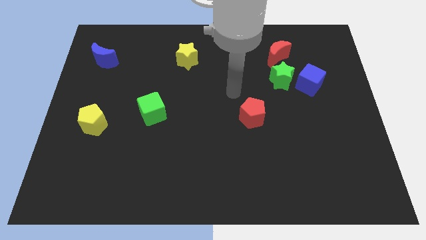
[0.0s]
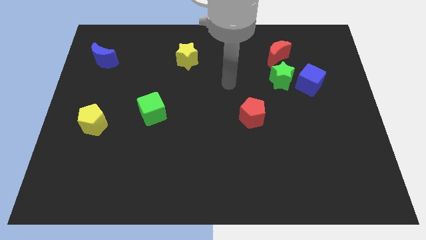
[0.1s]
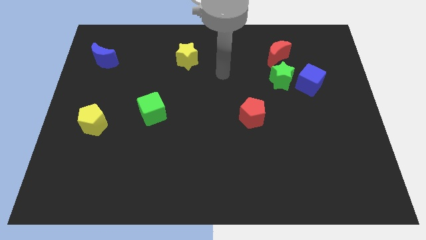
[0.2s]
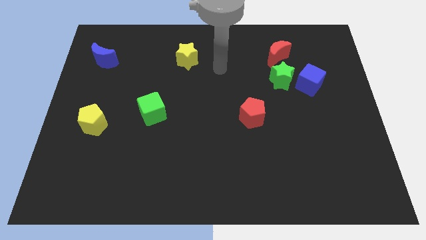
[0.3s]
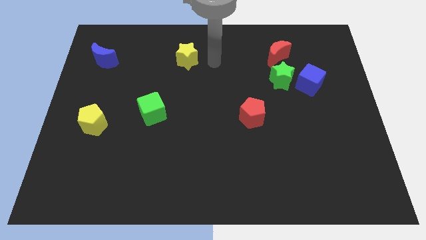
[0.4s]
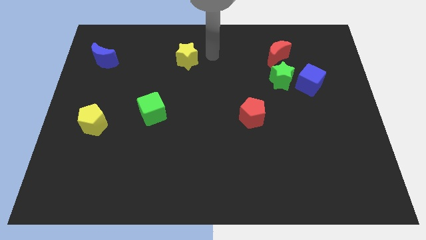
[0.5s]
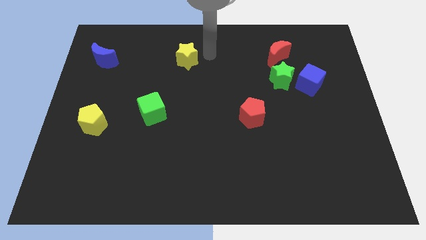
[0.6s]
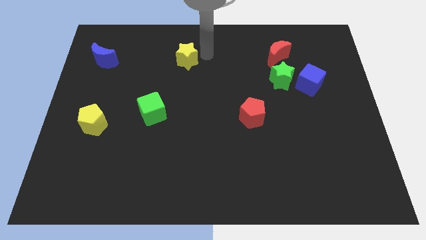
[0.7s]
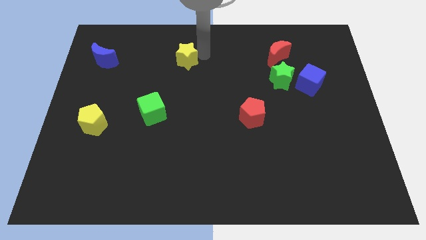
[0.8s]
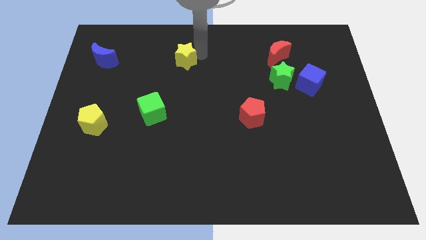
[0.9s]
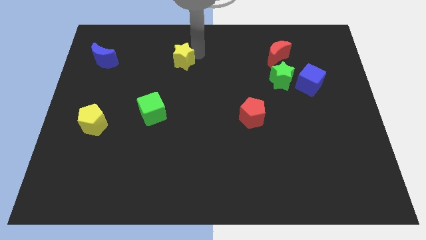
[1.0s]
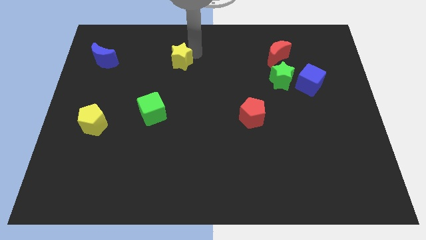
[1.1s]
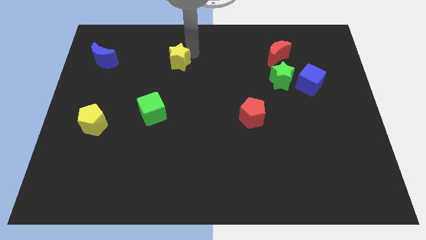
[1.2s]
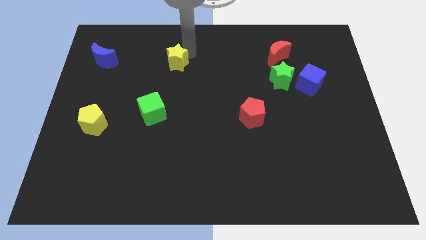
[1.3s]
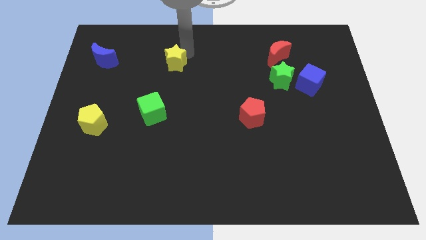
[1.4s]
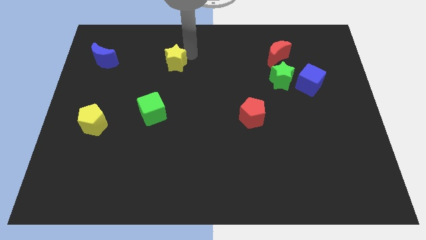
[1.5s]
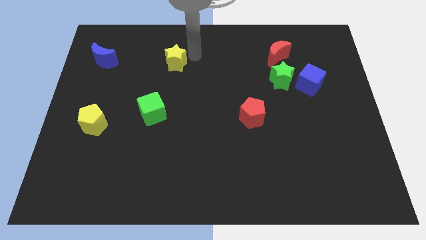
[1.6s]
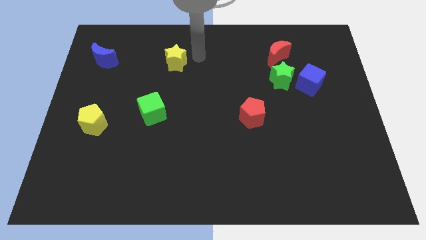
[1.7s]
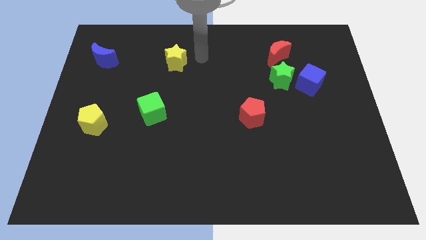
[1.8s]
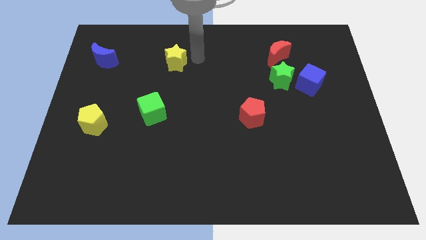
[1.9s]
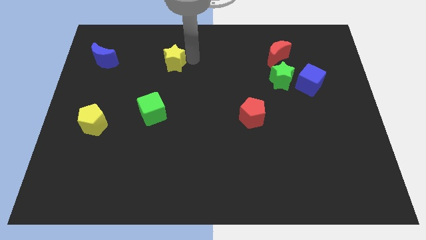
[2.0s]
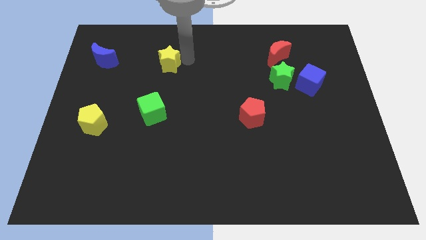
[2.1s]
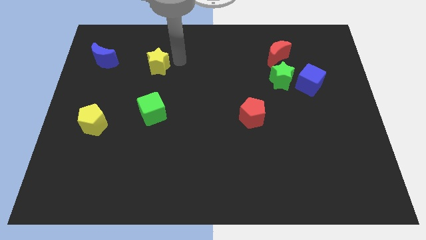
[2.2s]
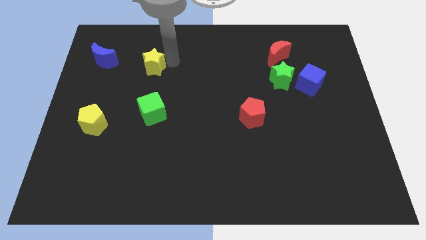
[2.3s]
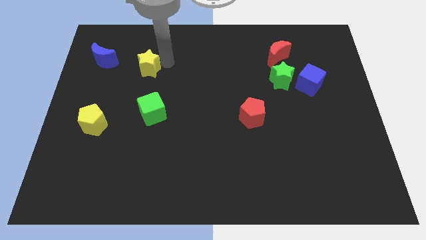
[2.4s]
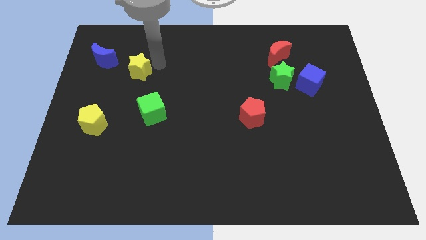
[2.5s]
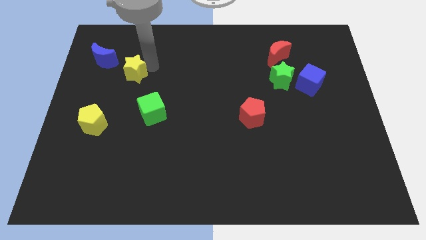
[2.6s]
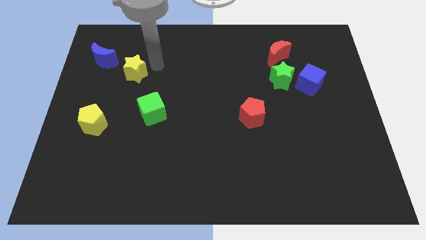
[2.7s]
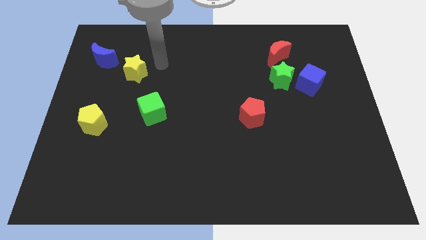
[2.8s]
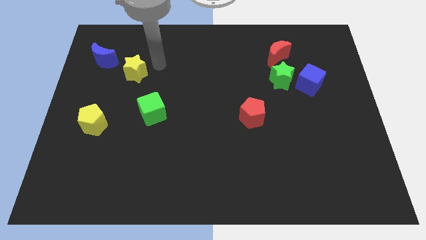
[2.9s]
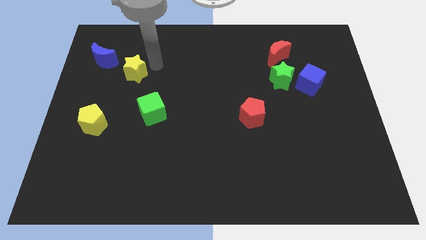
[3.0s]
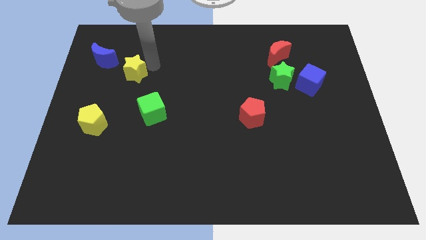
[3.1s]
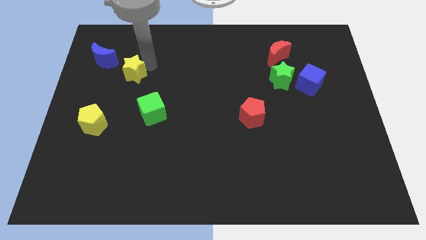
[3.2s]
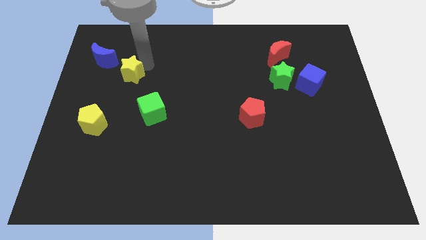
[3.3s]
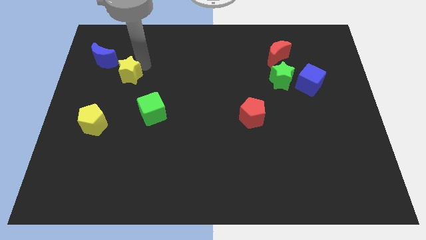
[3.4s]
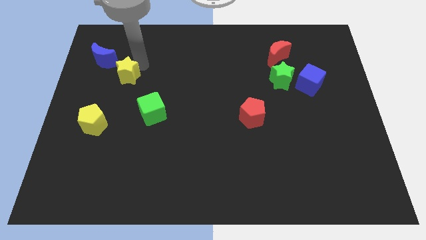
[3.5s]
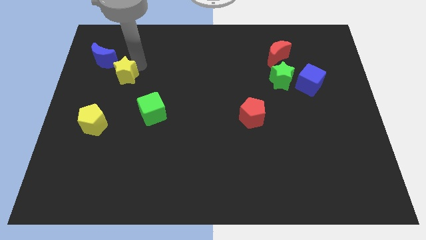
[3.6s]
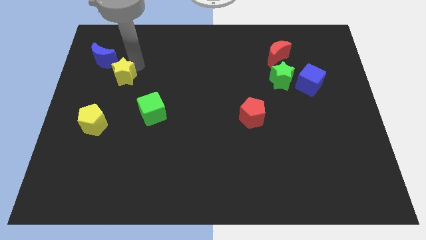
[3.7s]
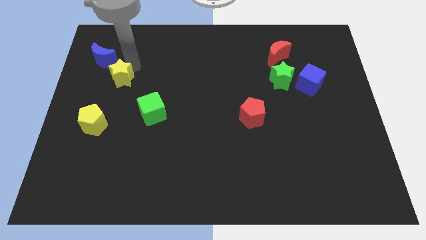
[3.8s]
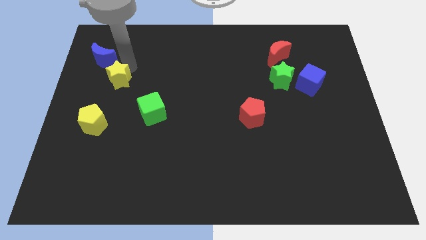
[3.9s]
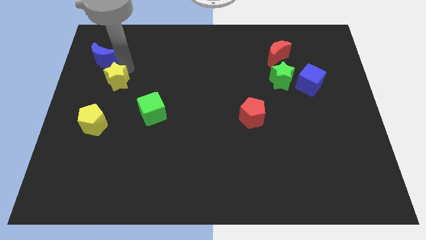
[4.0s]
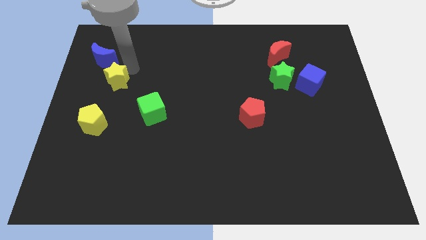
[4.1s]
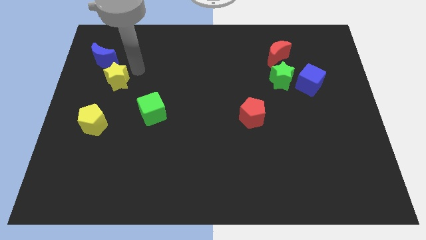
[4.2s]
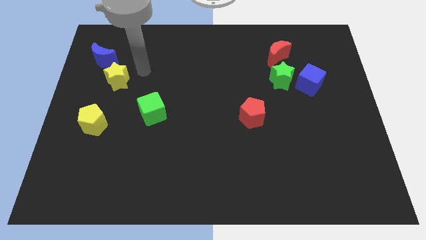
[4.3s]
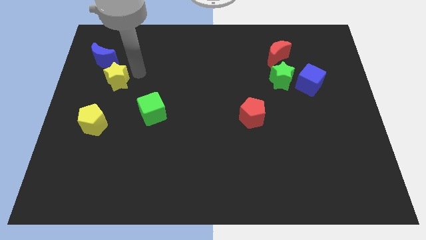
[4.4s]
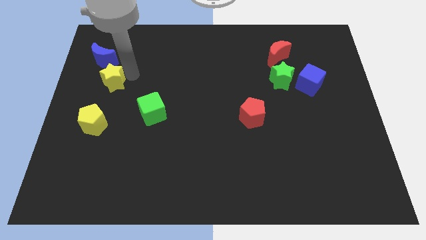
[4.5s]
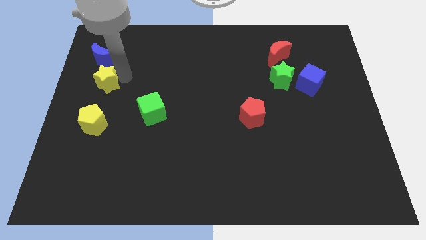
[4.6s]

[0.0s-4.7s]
move the yellow star to the left side

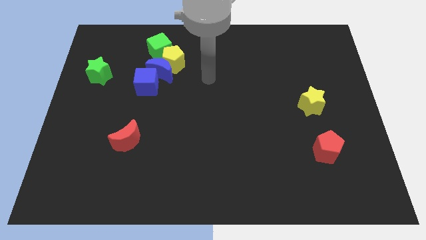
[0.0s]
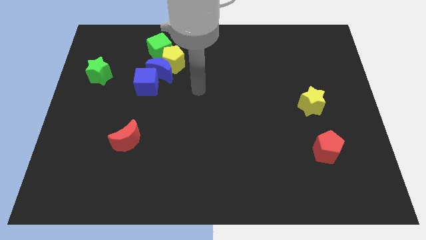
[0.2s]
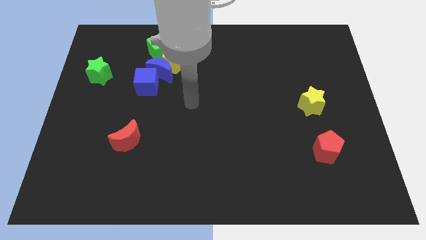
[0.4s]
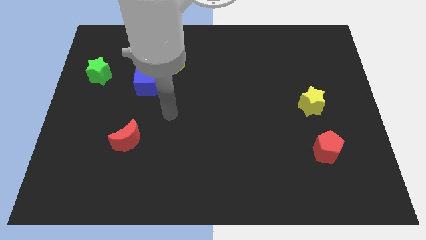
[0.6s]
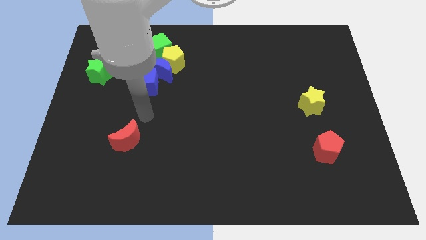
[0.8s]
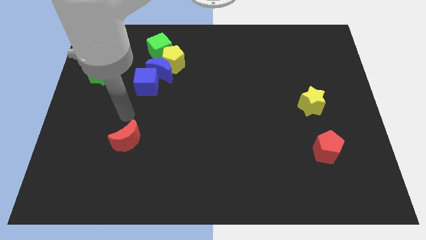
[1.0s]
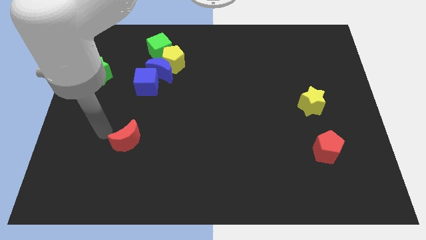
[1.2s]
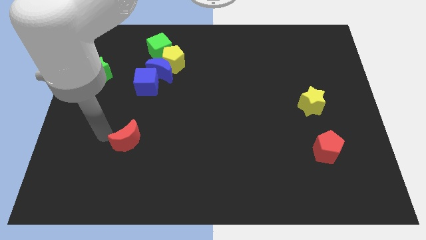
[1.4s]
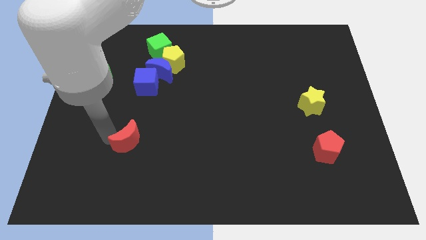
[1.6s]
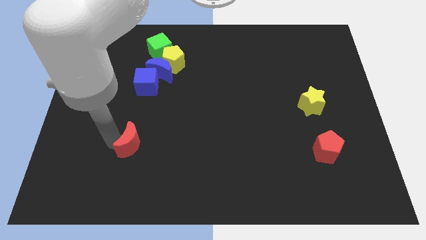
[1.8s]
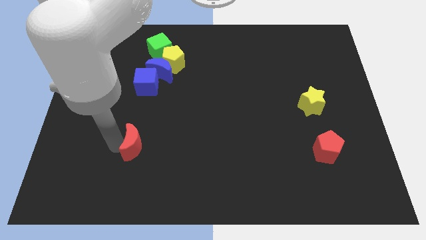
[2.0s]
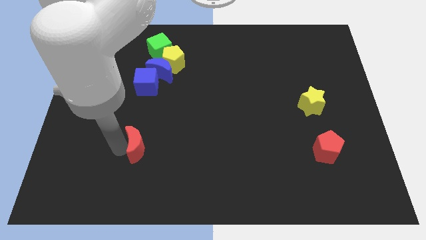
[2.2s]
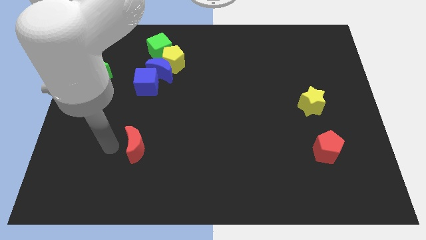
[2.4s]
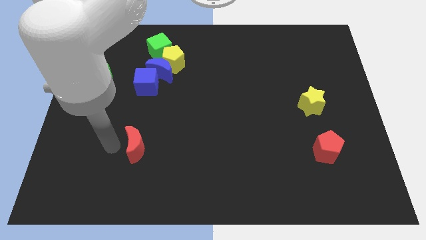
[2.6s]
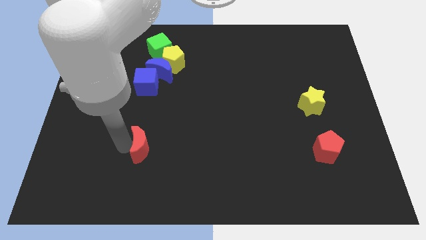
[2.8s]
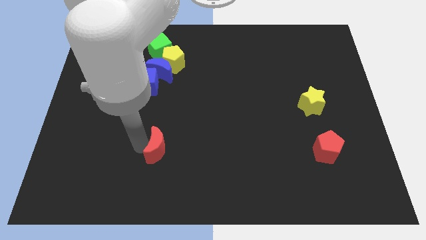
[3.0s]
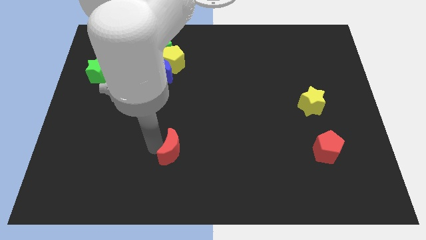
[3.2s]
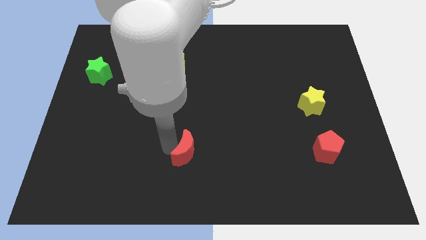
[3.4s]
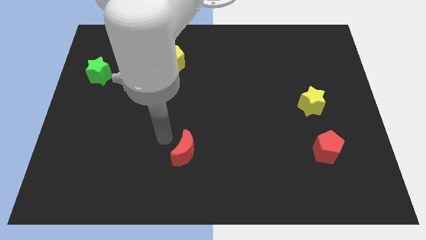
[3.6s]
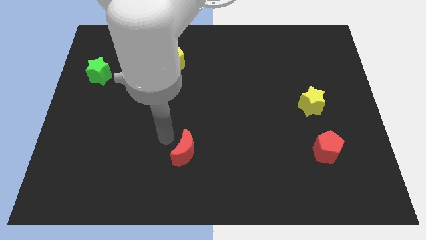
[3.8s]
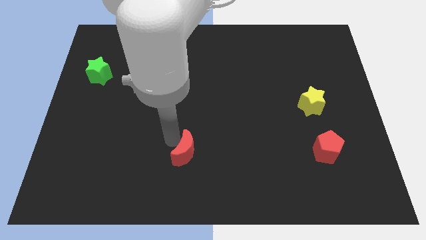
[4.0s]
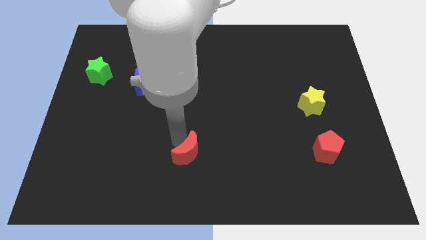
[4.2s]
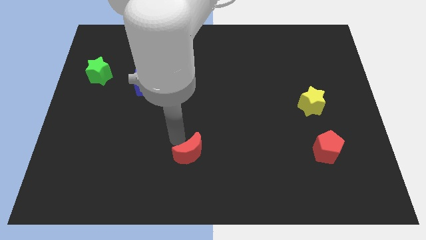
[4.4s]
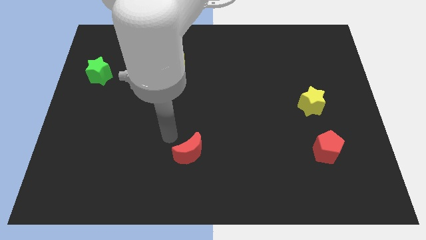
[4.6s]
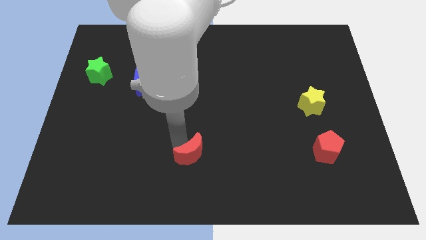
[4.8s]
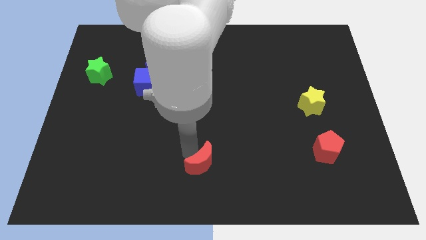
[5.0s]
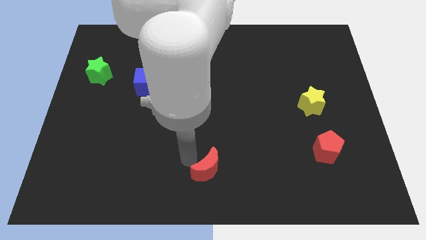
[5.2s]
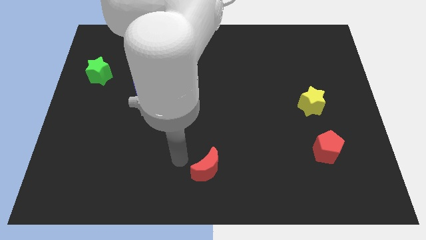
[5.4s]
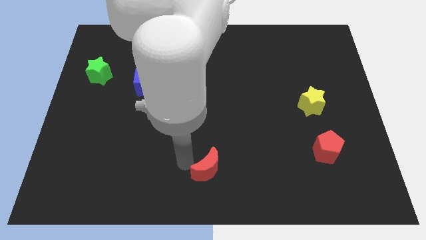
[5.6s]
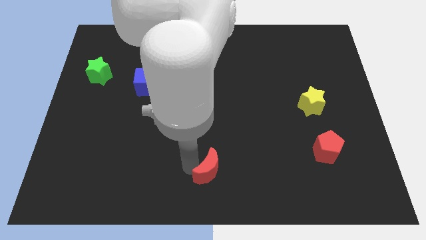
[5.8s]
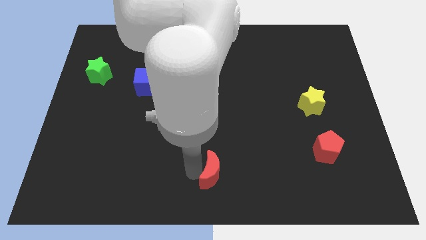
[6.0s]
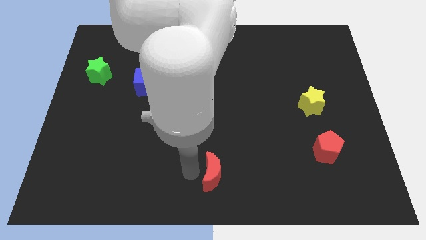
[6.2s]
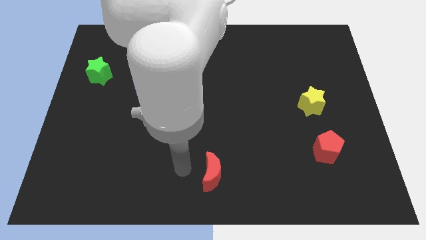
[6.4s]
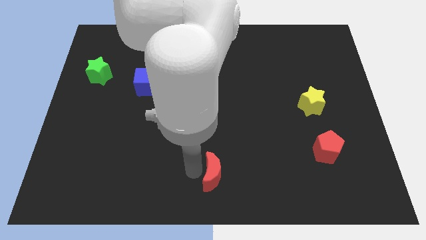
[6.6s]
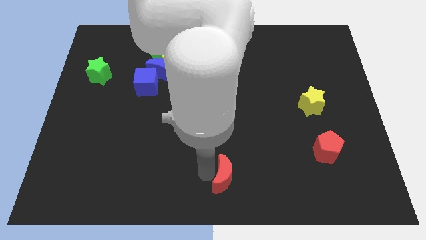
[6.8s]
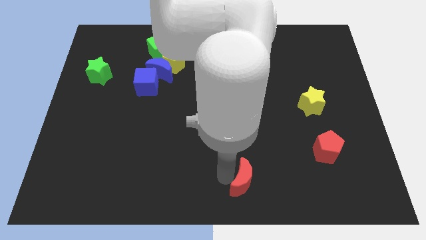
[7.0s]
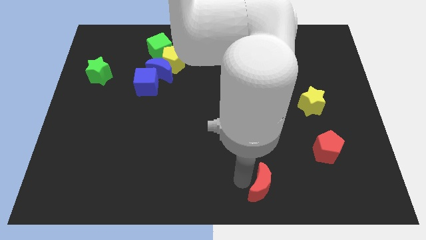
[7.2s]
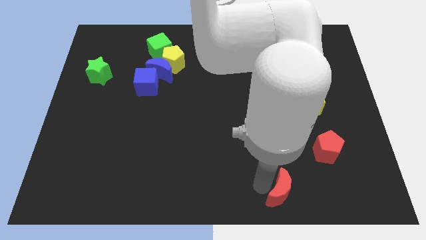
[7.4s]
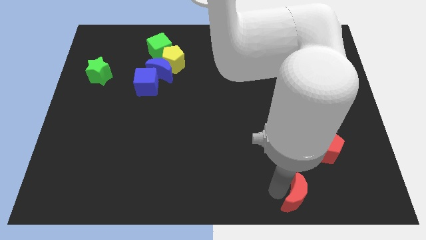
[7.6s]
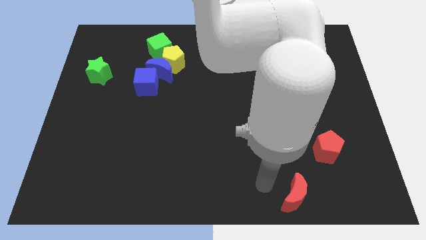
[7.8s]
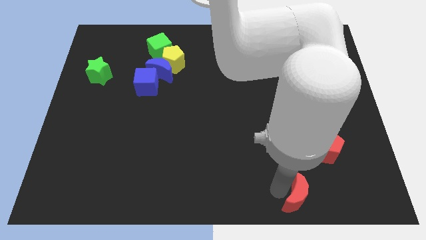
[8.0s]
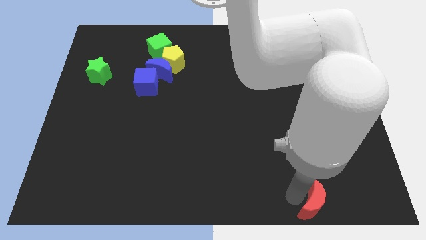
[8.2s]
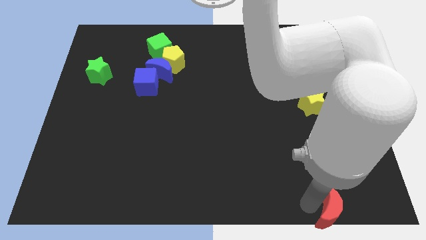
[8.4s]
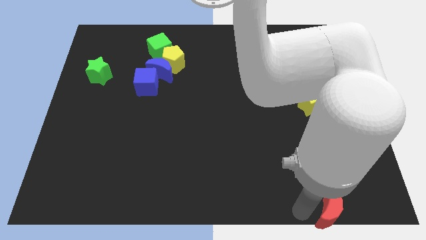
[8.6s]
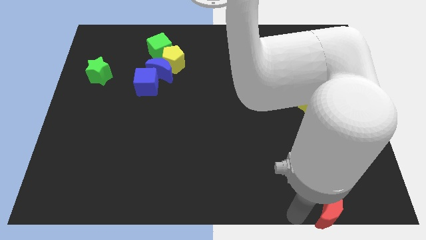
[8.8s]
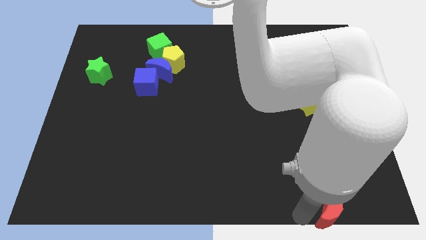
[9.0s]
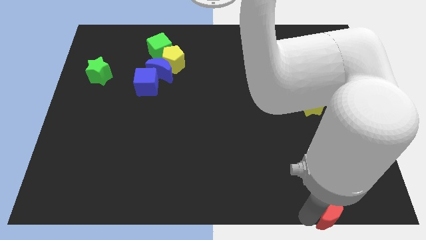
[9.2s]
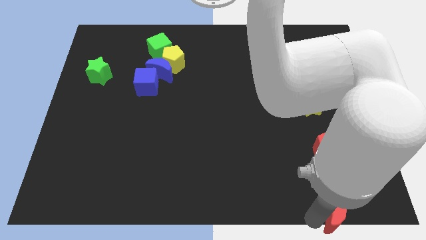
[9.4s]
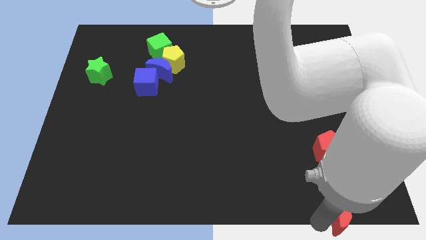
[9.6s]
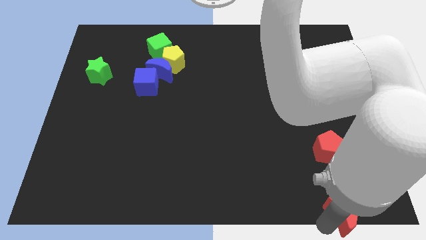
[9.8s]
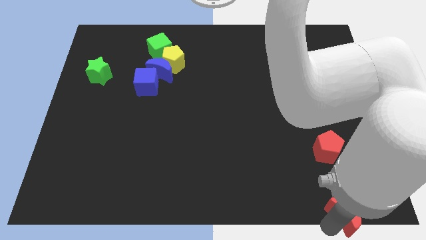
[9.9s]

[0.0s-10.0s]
move the red moon to the bottom right of the board
